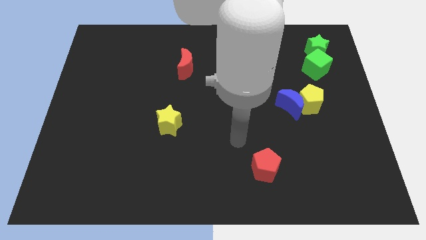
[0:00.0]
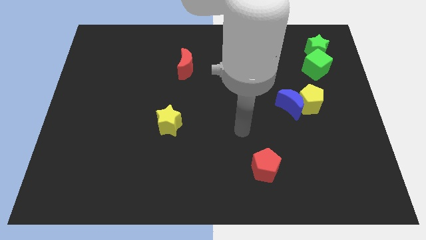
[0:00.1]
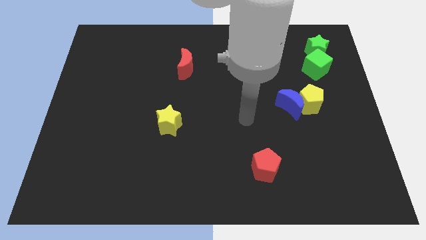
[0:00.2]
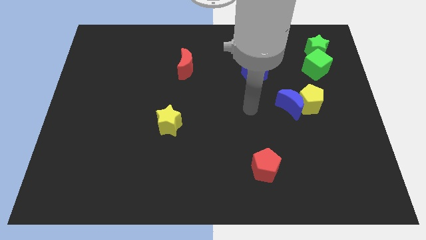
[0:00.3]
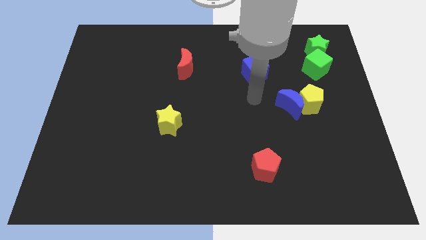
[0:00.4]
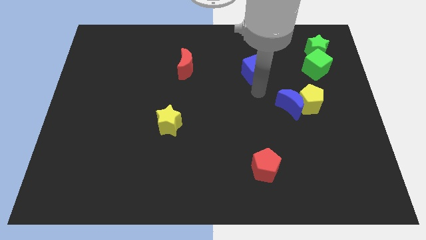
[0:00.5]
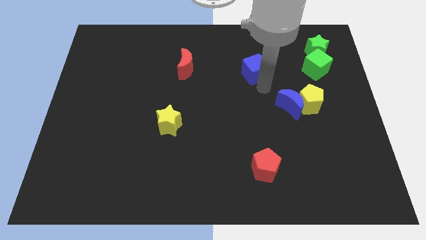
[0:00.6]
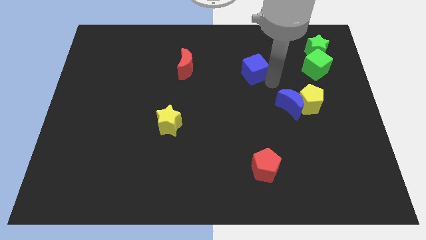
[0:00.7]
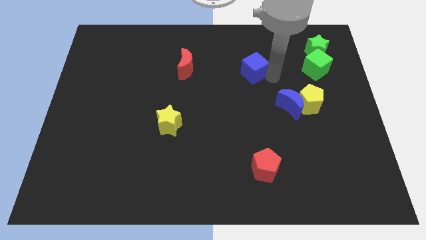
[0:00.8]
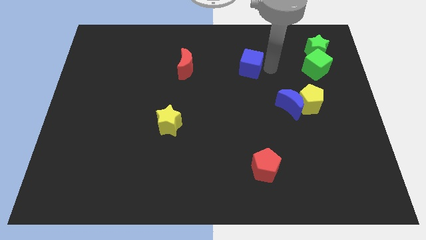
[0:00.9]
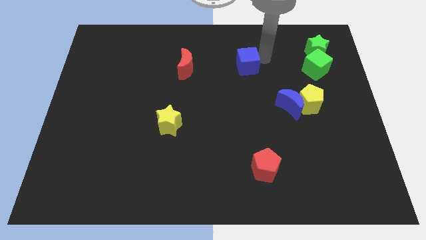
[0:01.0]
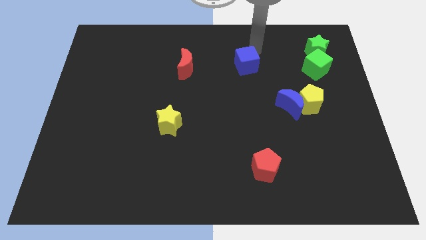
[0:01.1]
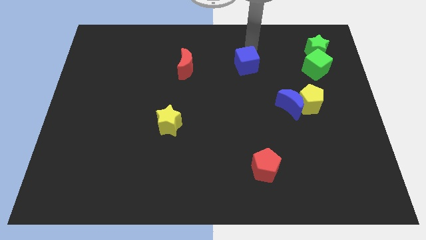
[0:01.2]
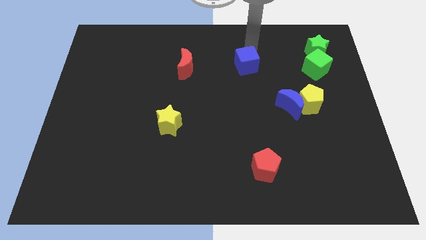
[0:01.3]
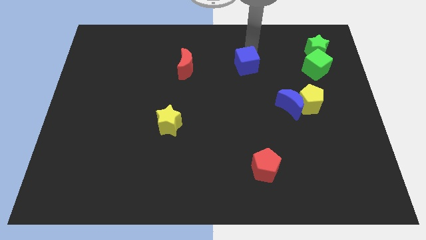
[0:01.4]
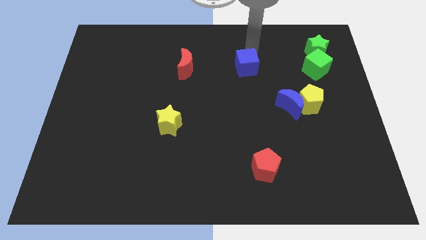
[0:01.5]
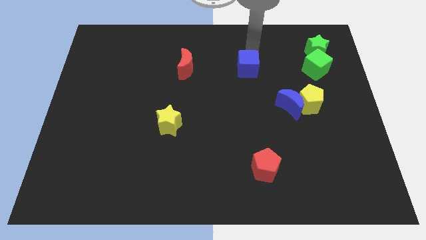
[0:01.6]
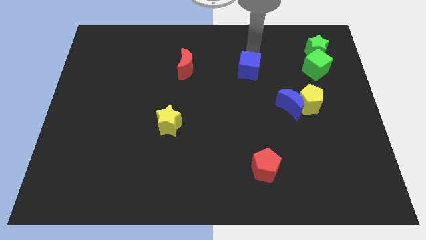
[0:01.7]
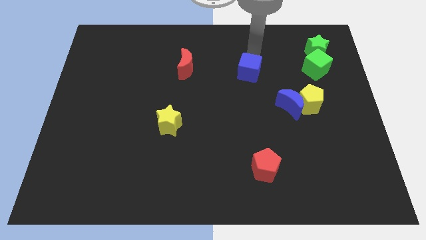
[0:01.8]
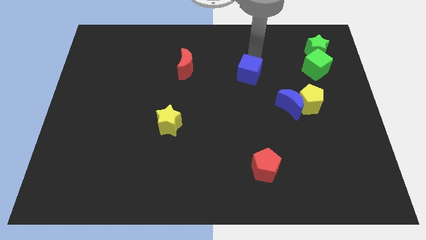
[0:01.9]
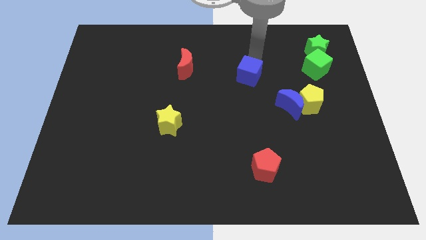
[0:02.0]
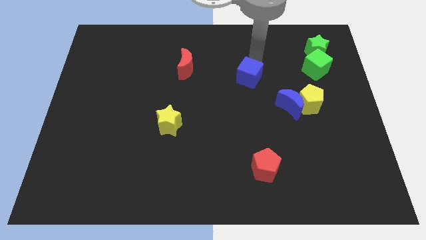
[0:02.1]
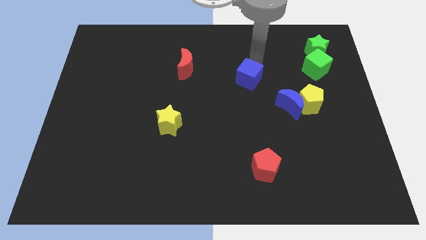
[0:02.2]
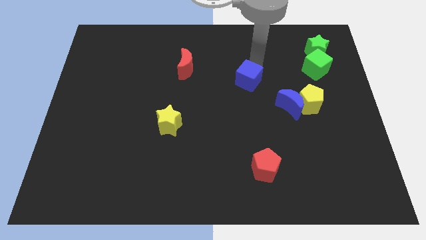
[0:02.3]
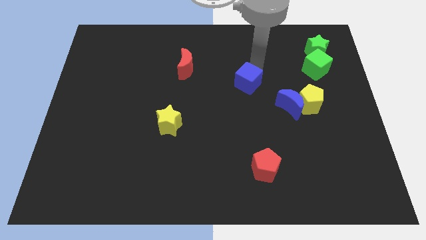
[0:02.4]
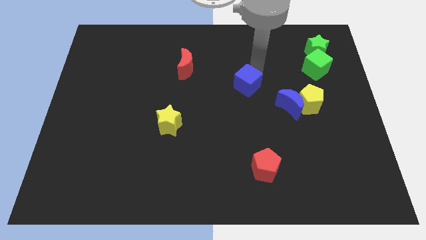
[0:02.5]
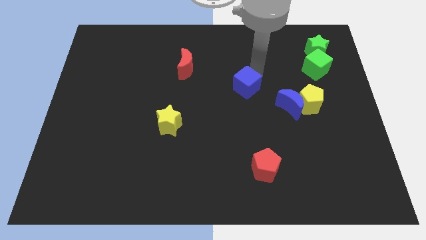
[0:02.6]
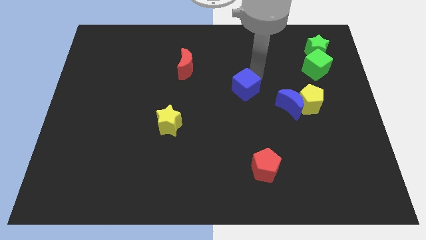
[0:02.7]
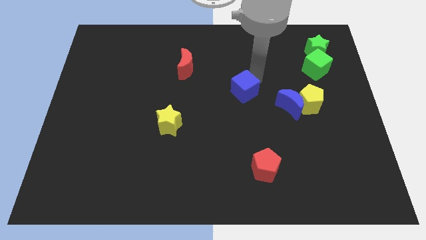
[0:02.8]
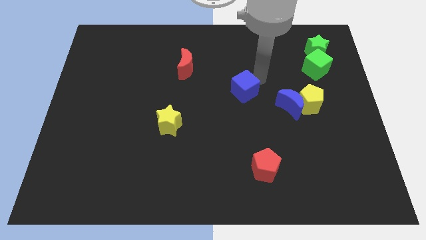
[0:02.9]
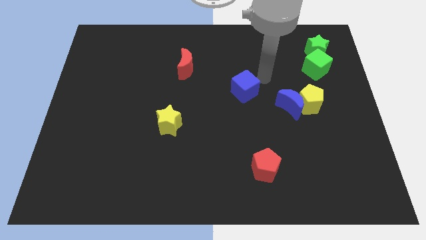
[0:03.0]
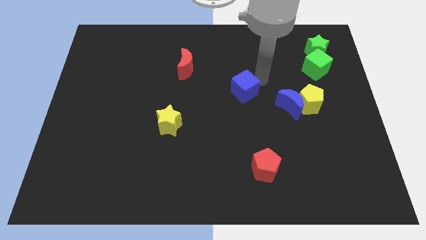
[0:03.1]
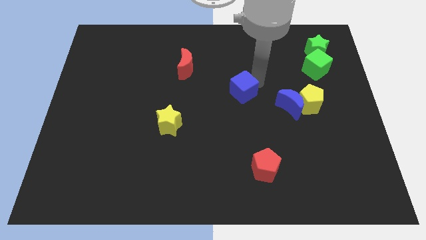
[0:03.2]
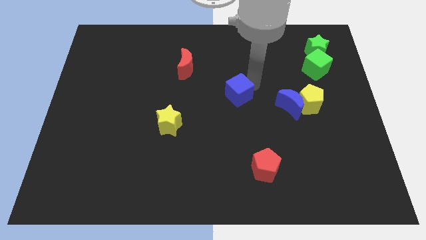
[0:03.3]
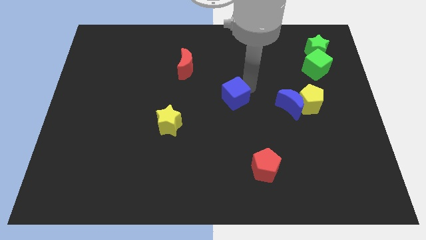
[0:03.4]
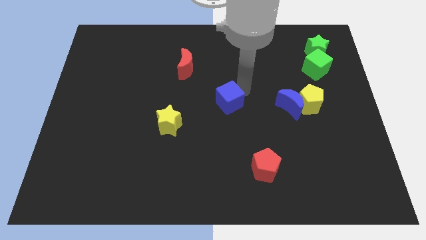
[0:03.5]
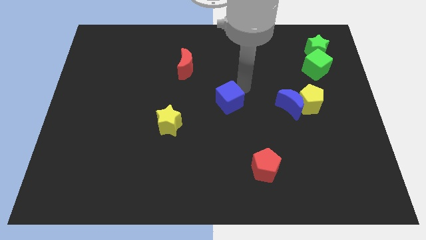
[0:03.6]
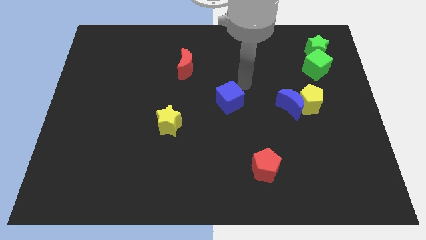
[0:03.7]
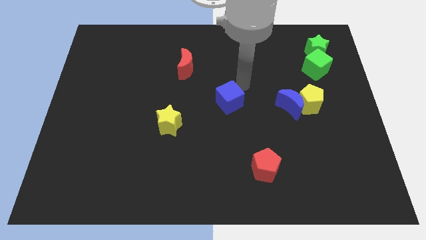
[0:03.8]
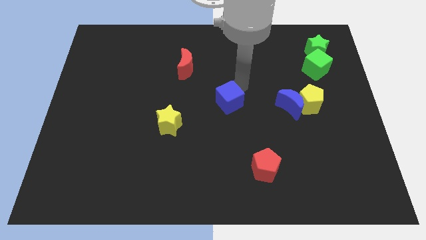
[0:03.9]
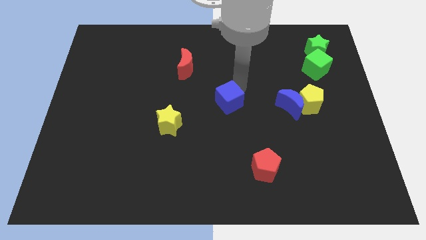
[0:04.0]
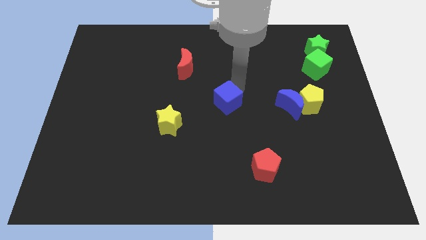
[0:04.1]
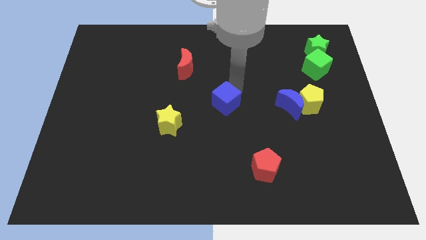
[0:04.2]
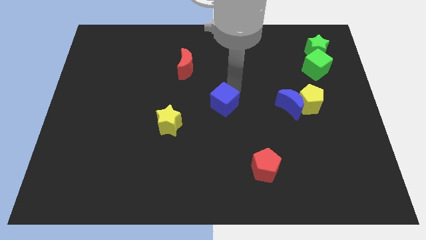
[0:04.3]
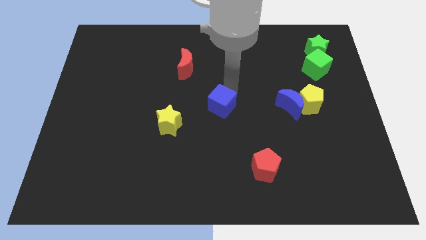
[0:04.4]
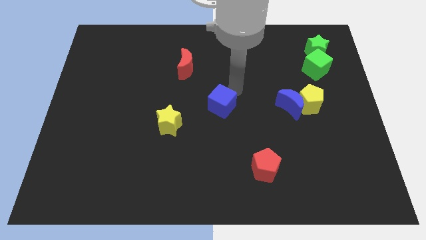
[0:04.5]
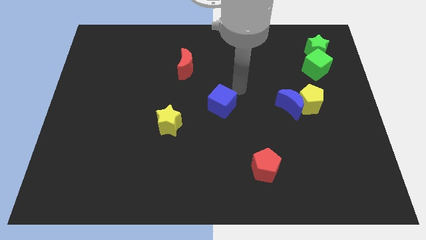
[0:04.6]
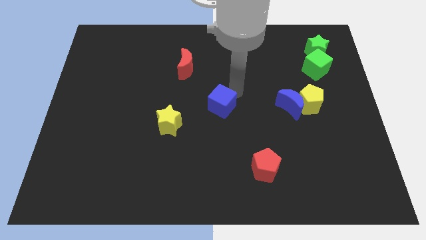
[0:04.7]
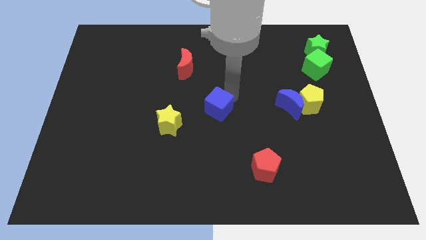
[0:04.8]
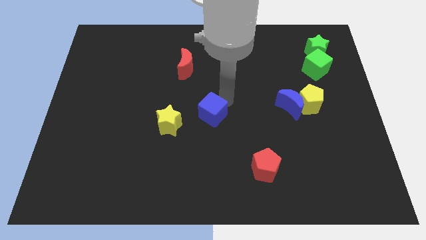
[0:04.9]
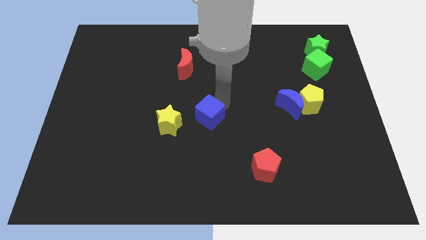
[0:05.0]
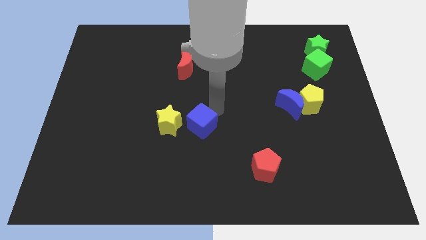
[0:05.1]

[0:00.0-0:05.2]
push the blue cube downwards and then to the left

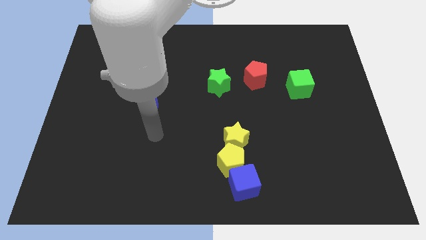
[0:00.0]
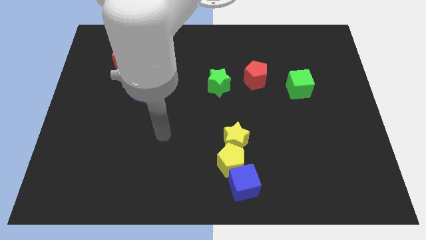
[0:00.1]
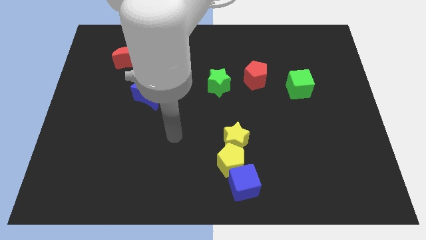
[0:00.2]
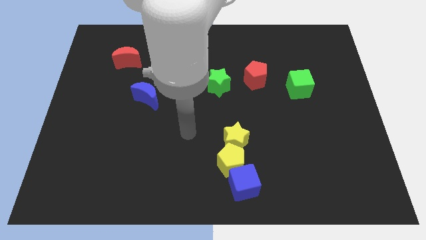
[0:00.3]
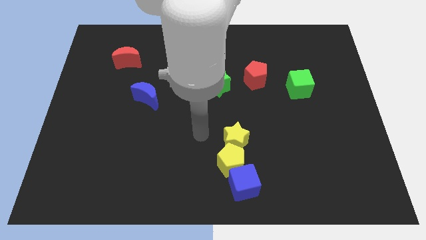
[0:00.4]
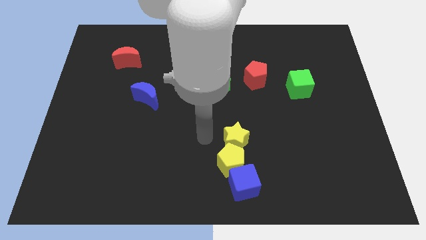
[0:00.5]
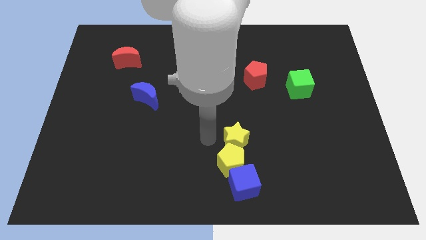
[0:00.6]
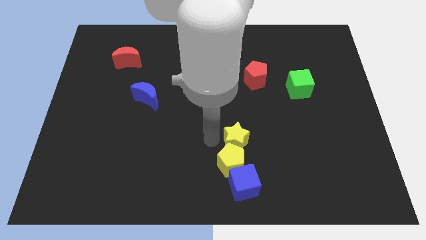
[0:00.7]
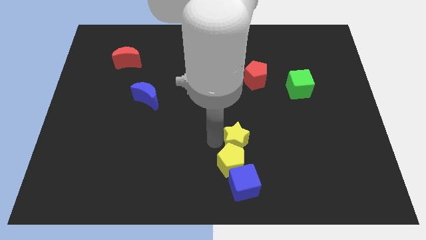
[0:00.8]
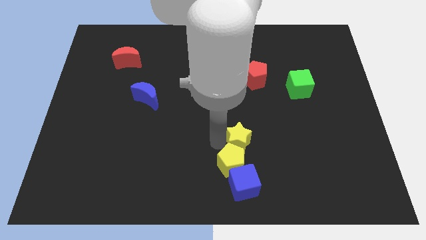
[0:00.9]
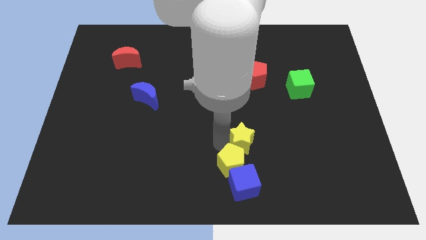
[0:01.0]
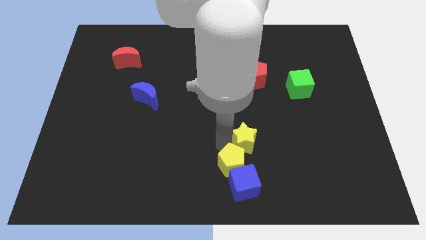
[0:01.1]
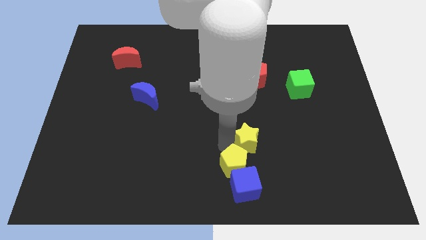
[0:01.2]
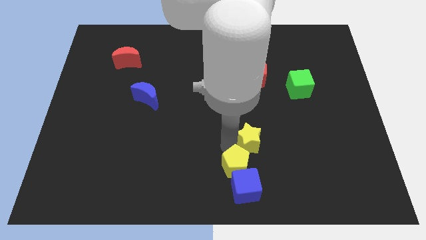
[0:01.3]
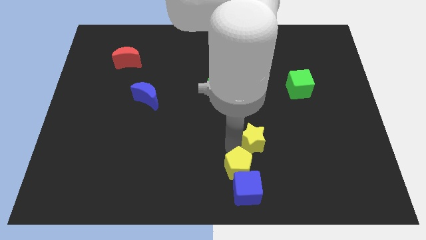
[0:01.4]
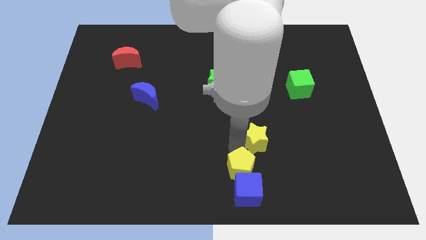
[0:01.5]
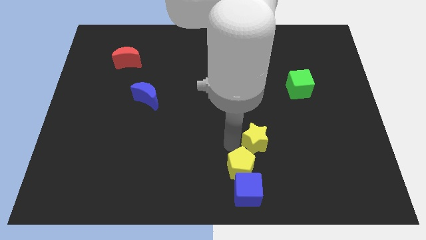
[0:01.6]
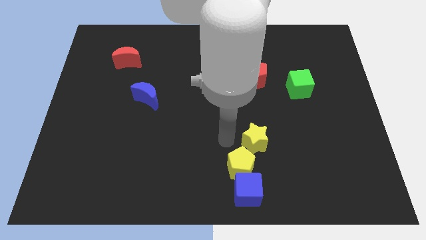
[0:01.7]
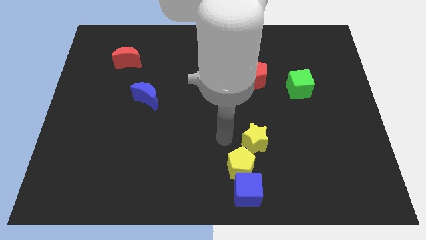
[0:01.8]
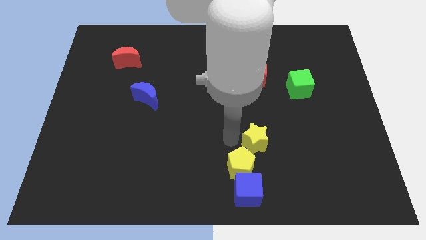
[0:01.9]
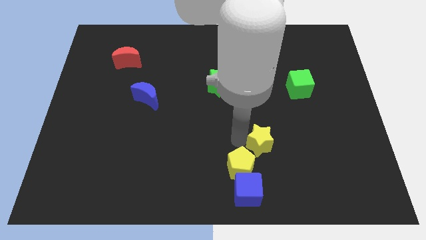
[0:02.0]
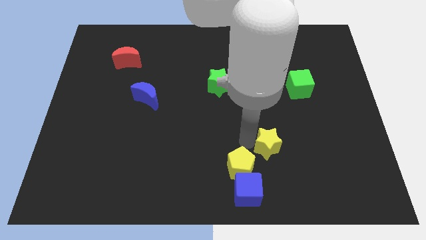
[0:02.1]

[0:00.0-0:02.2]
slightly move the yellow star right

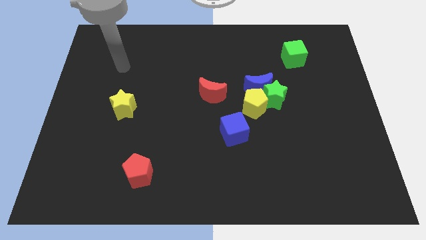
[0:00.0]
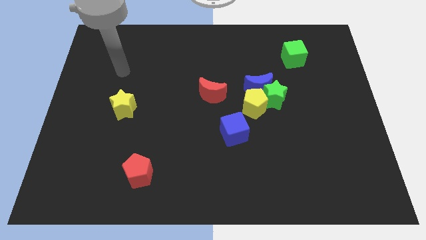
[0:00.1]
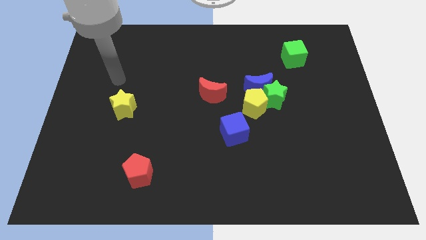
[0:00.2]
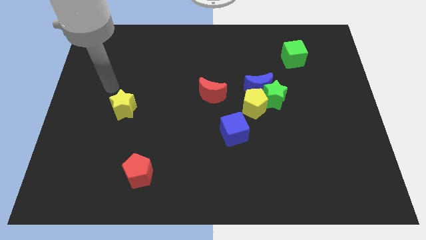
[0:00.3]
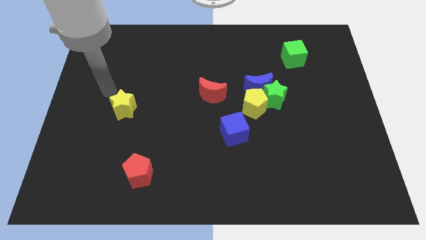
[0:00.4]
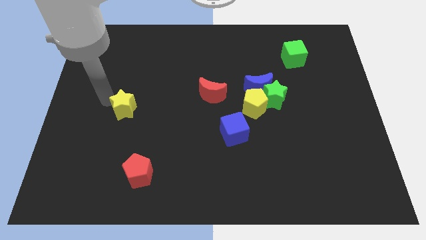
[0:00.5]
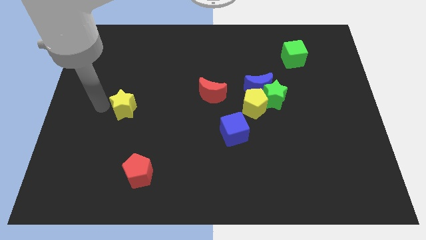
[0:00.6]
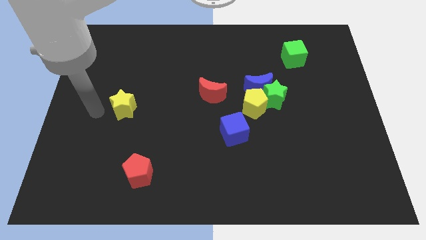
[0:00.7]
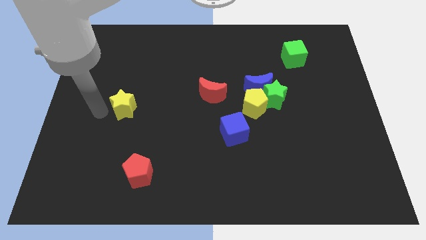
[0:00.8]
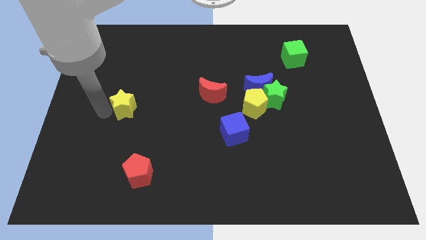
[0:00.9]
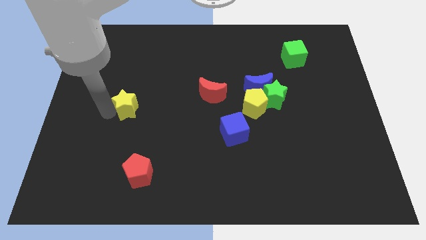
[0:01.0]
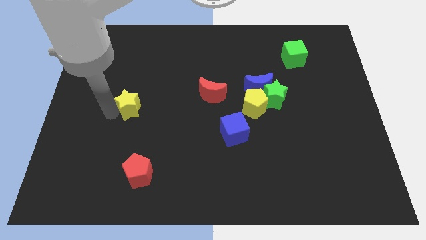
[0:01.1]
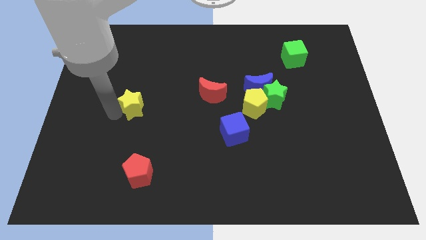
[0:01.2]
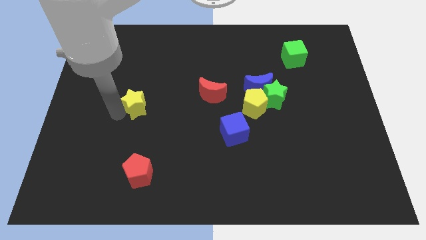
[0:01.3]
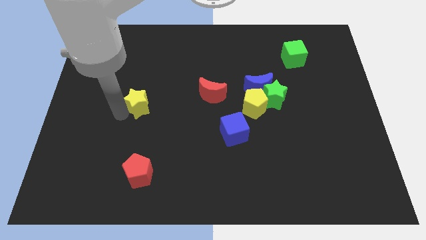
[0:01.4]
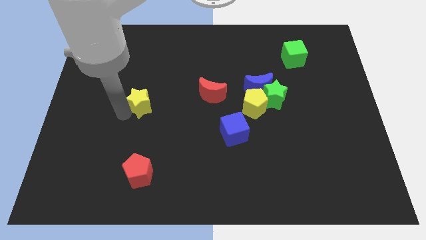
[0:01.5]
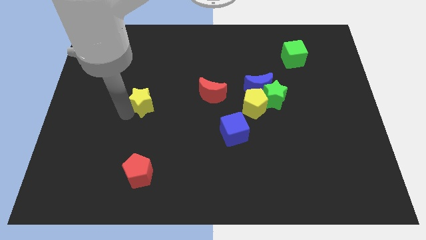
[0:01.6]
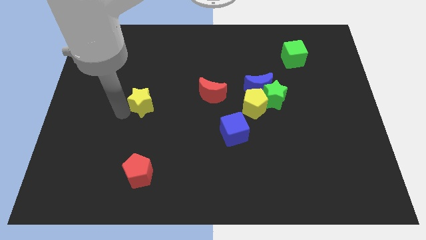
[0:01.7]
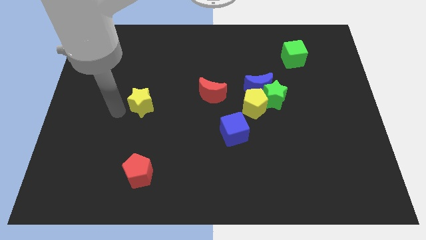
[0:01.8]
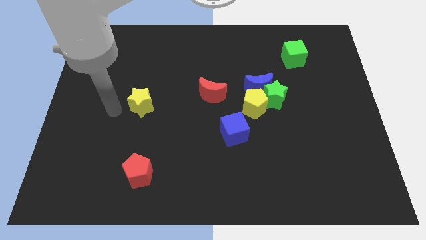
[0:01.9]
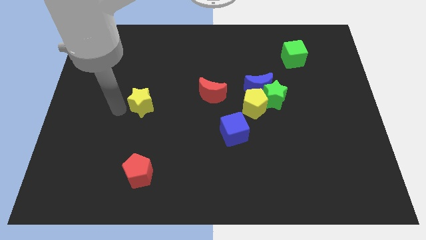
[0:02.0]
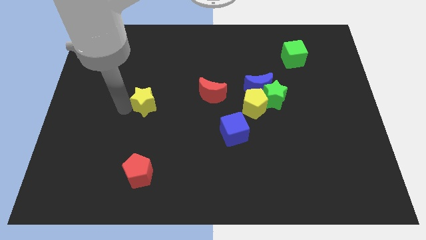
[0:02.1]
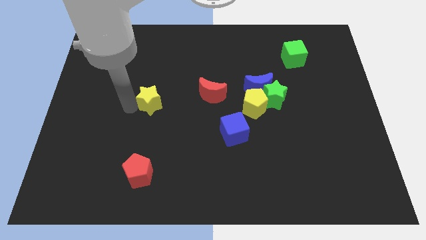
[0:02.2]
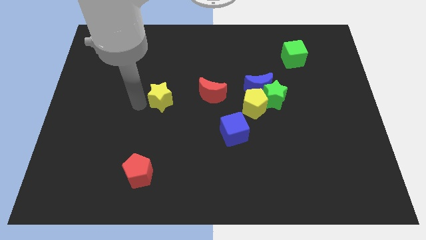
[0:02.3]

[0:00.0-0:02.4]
slide the yellow star a bit right
